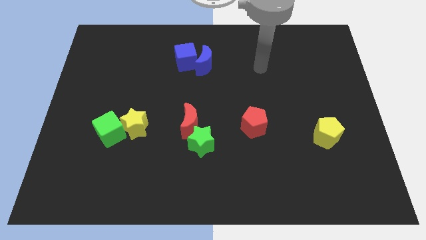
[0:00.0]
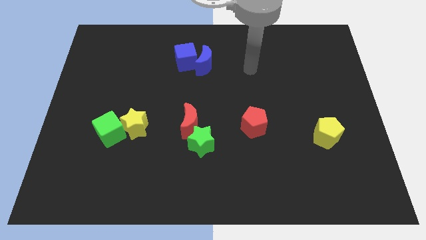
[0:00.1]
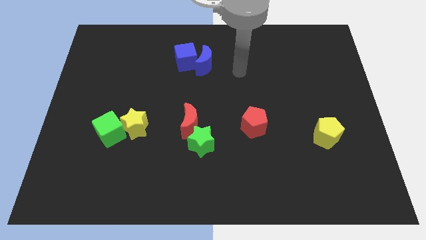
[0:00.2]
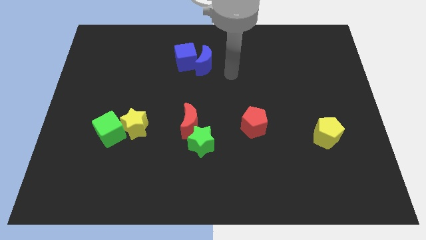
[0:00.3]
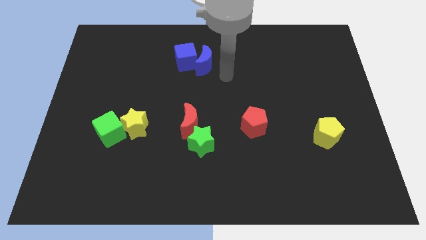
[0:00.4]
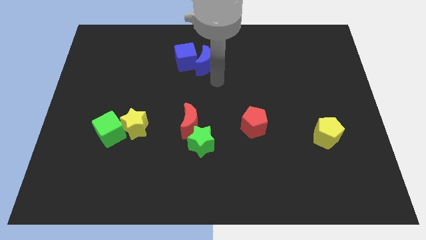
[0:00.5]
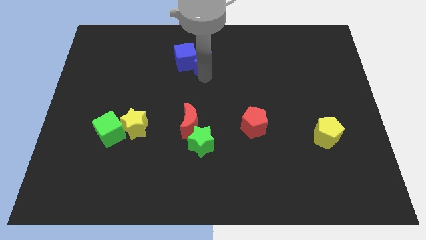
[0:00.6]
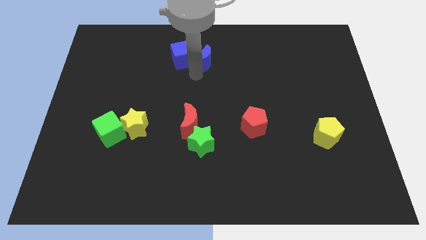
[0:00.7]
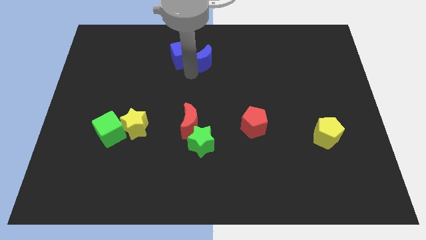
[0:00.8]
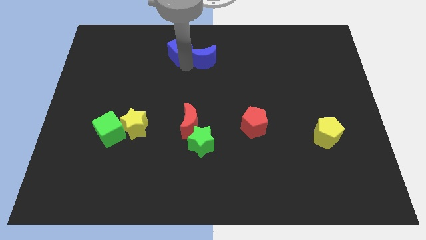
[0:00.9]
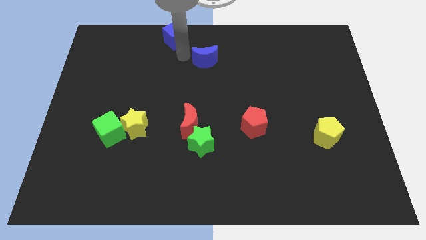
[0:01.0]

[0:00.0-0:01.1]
move the blue moon away from the blue cube

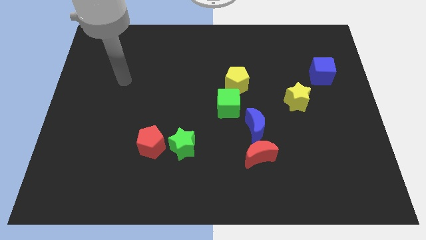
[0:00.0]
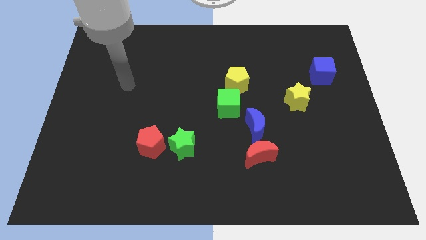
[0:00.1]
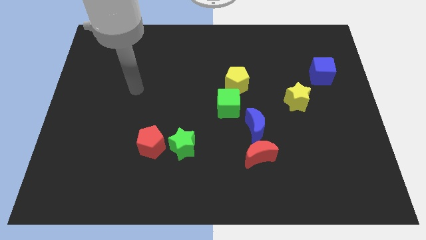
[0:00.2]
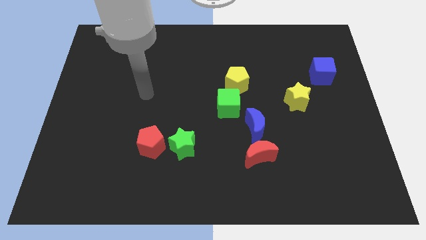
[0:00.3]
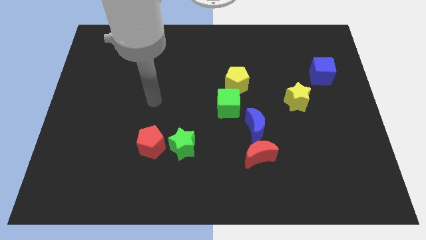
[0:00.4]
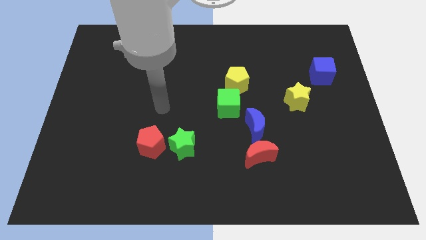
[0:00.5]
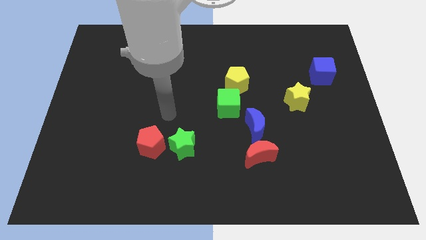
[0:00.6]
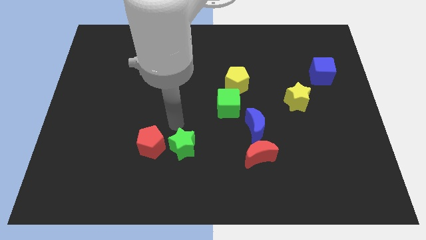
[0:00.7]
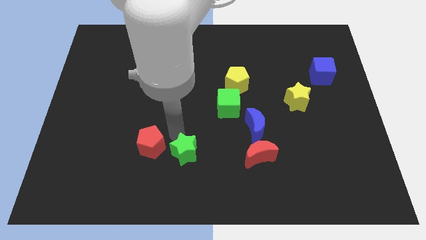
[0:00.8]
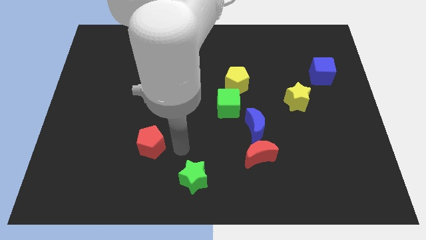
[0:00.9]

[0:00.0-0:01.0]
separate the red pentagon from the green star

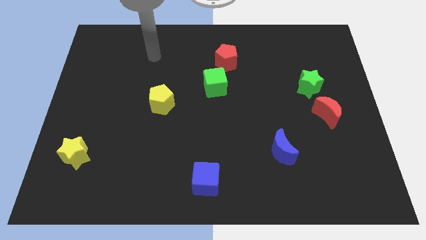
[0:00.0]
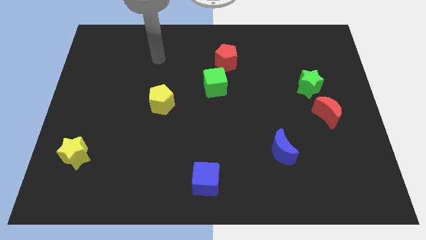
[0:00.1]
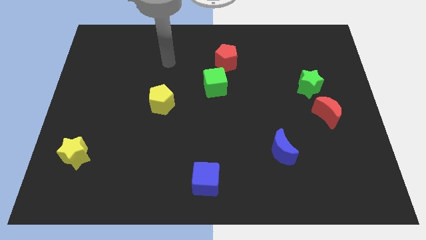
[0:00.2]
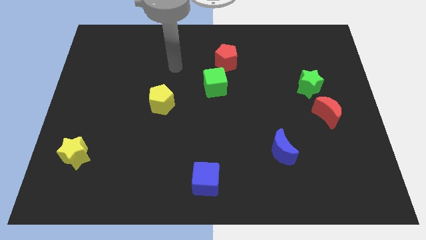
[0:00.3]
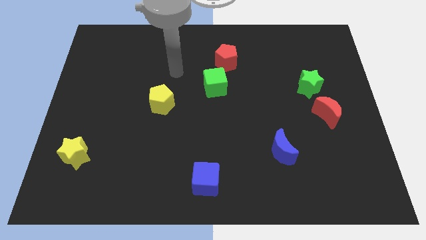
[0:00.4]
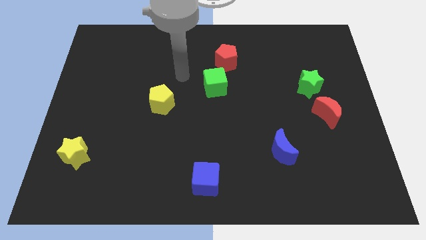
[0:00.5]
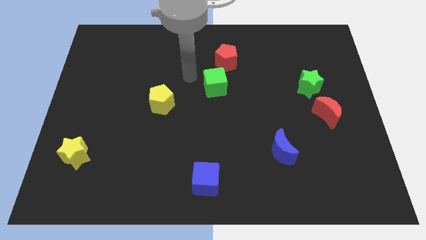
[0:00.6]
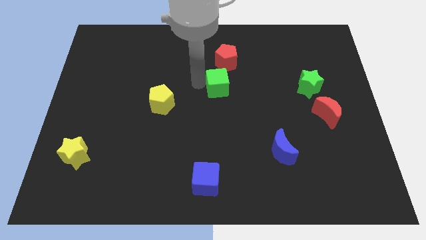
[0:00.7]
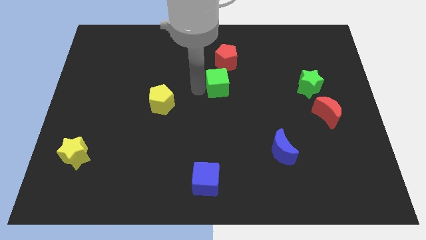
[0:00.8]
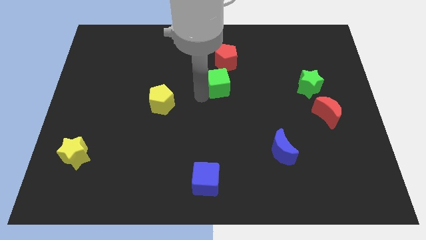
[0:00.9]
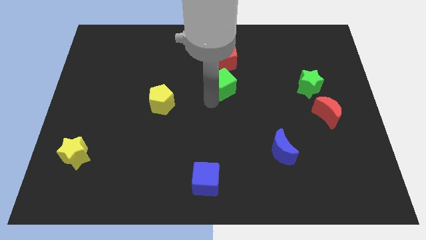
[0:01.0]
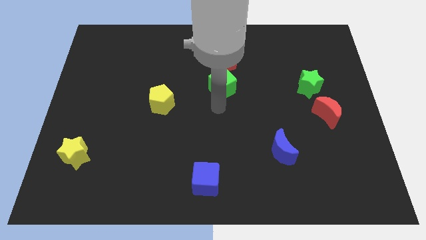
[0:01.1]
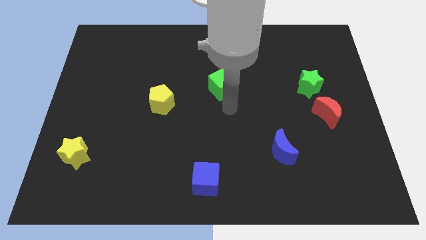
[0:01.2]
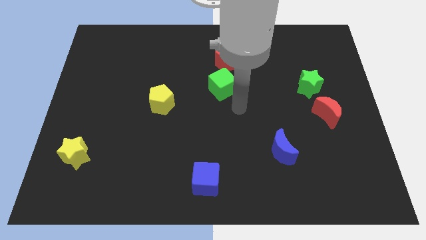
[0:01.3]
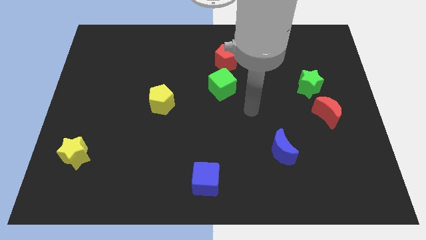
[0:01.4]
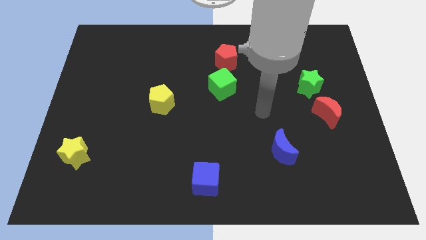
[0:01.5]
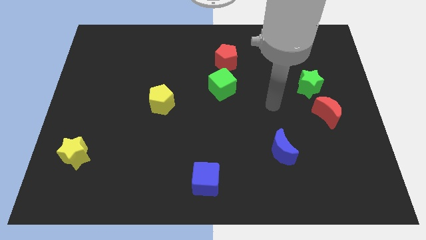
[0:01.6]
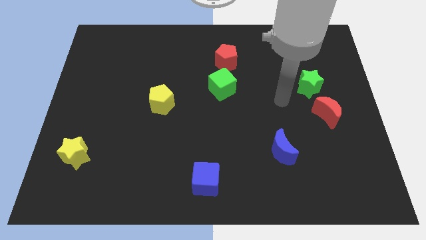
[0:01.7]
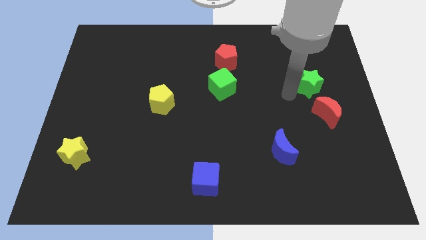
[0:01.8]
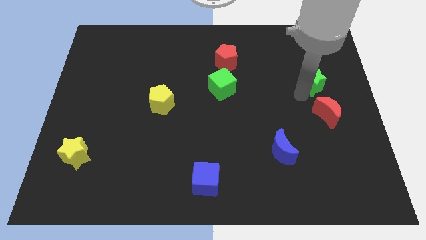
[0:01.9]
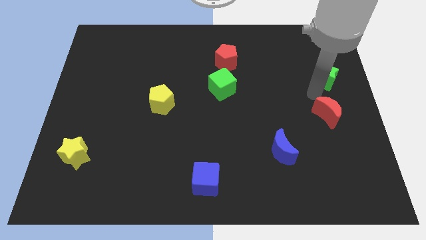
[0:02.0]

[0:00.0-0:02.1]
pull the red moon apart from the green star

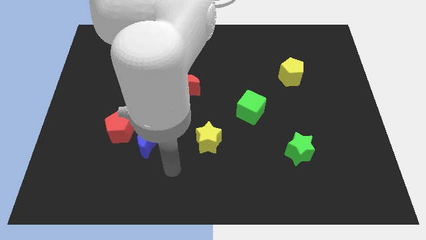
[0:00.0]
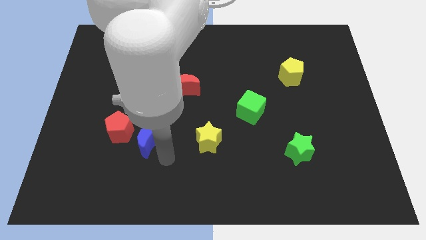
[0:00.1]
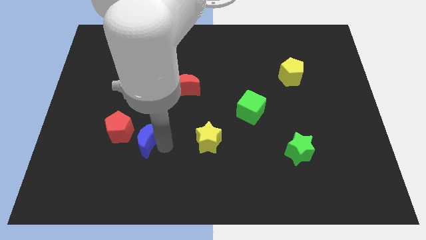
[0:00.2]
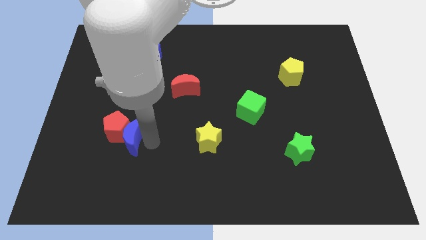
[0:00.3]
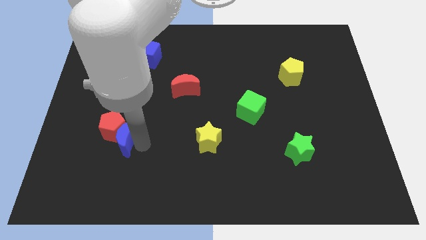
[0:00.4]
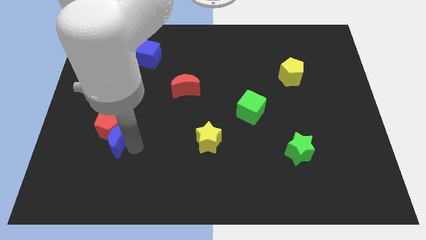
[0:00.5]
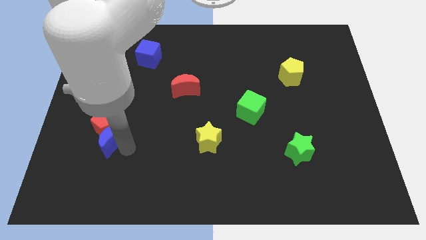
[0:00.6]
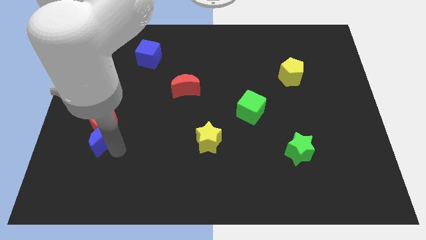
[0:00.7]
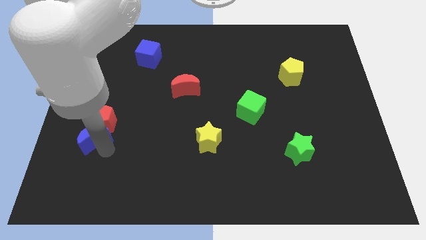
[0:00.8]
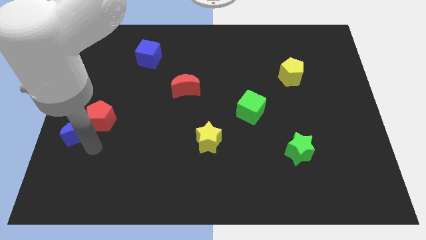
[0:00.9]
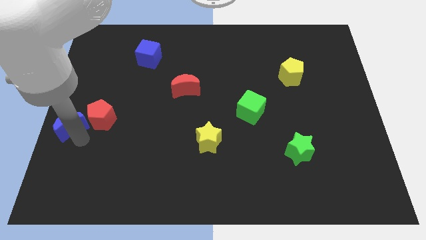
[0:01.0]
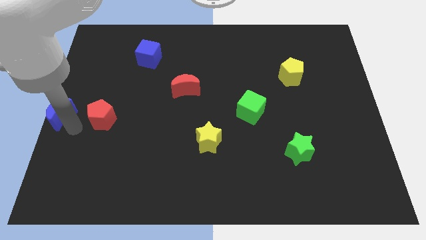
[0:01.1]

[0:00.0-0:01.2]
move the red pentagon away from the blue moon

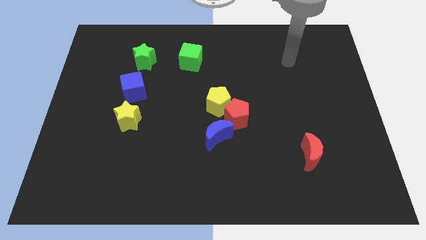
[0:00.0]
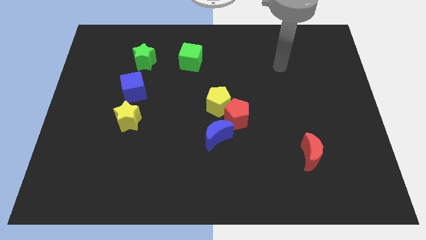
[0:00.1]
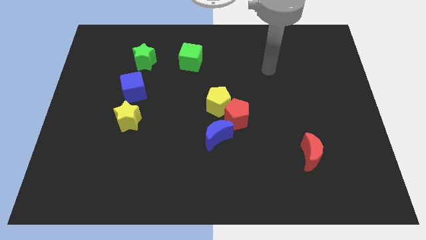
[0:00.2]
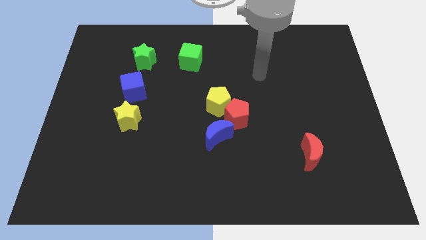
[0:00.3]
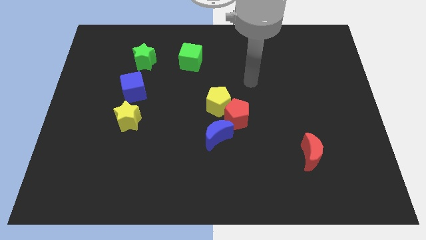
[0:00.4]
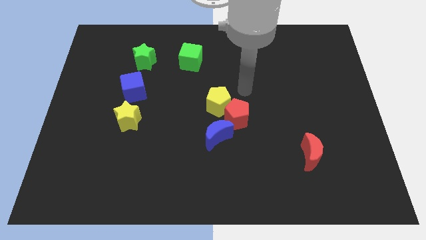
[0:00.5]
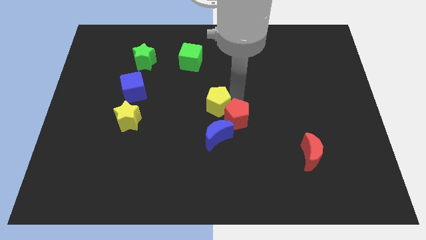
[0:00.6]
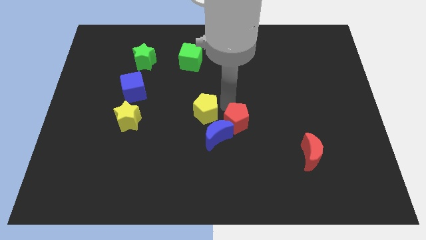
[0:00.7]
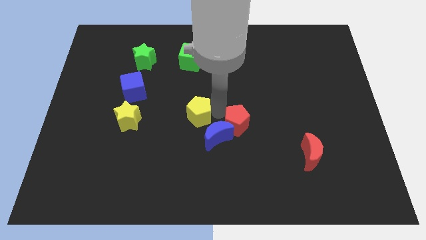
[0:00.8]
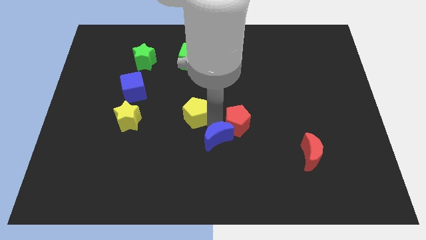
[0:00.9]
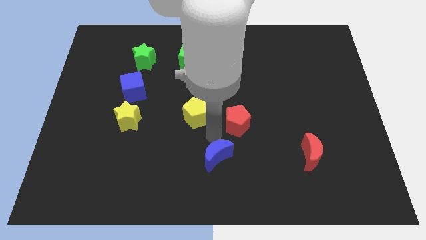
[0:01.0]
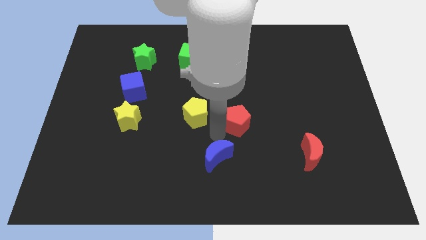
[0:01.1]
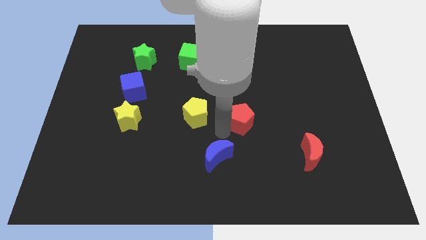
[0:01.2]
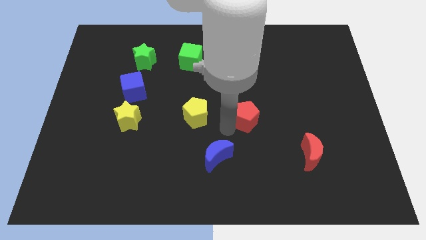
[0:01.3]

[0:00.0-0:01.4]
separate the red pentagon from the yellow pentagon and blue moon

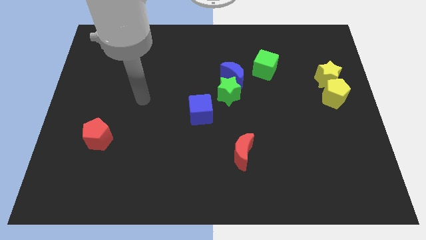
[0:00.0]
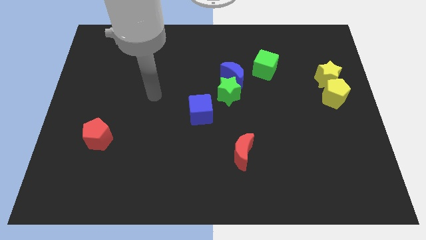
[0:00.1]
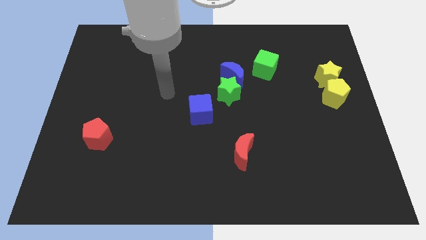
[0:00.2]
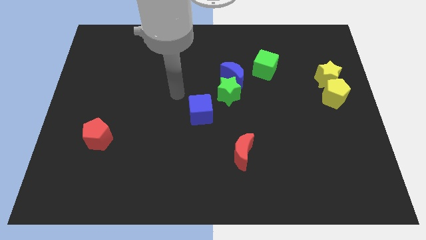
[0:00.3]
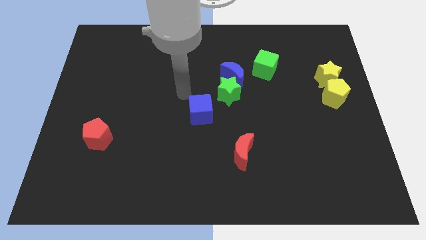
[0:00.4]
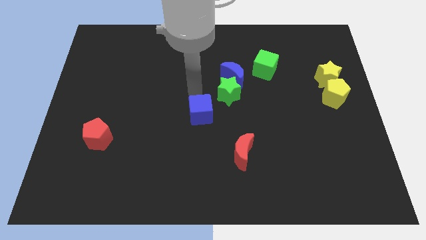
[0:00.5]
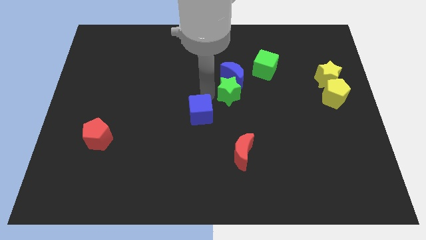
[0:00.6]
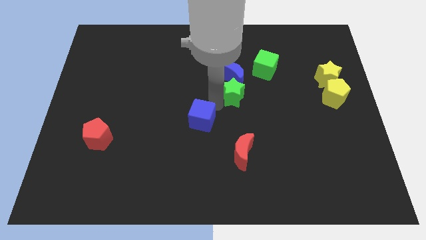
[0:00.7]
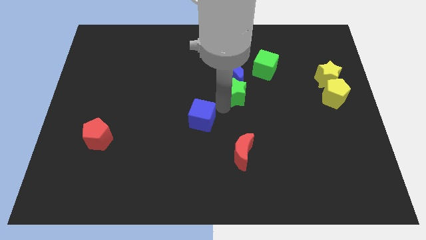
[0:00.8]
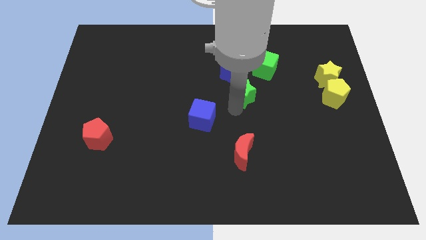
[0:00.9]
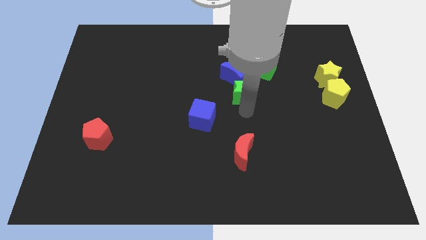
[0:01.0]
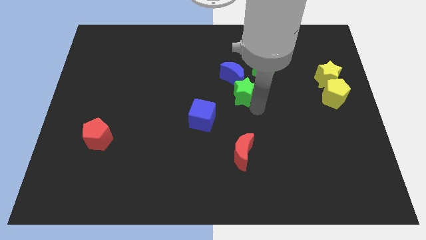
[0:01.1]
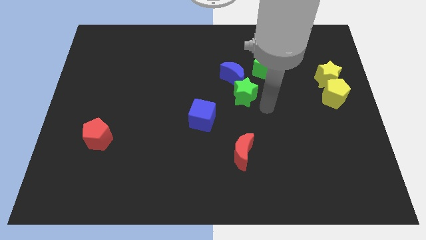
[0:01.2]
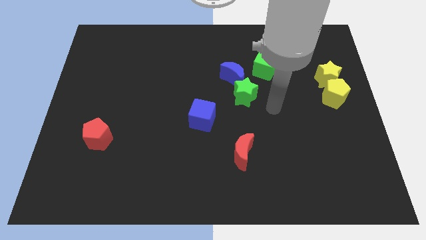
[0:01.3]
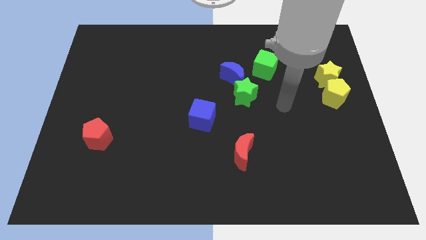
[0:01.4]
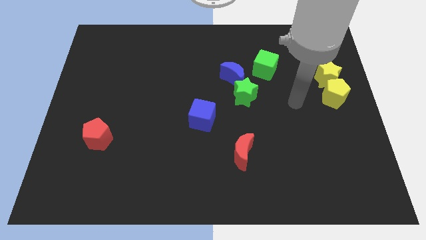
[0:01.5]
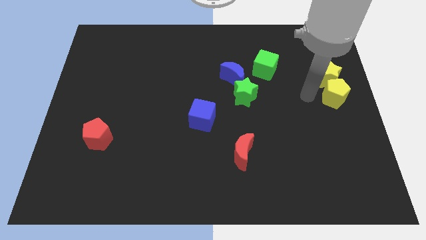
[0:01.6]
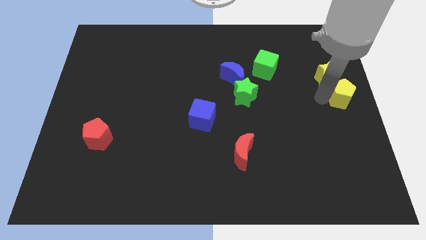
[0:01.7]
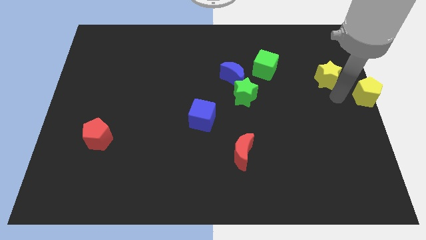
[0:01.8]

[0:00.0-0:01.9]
separate the yellow star from the yellow pentagon

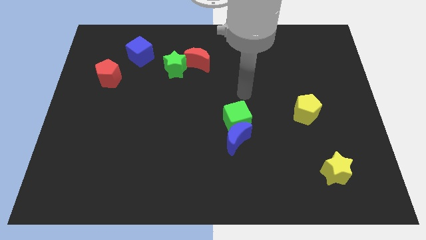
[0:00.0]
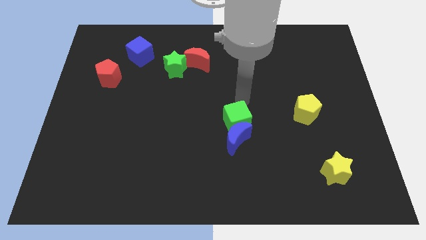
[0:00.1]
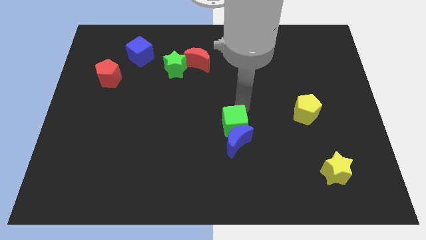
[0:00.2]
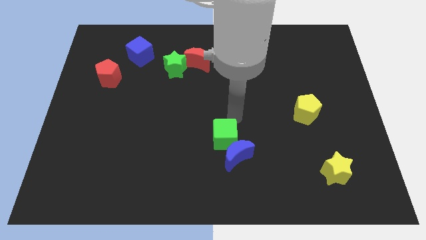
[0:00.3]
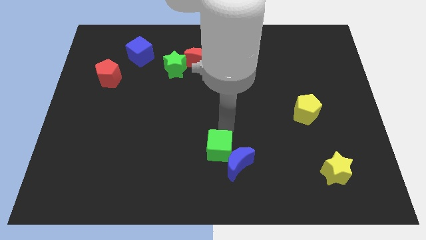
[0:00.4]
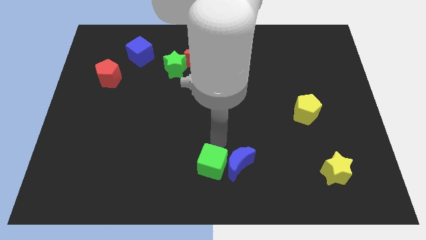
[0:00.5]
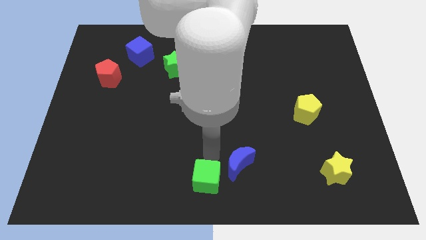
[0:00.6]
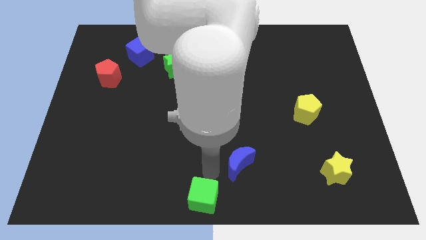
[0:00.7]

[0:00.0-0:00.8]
pull the blue moon apart from the green cube
